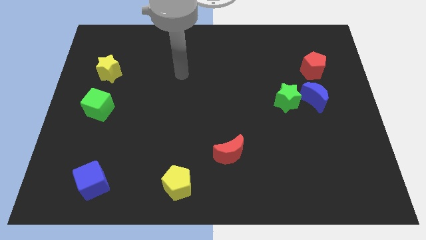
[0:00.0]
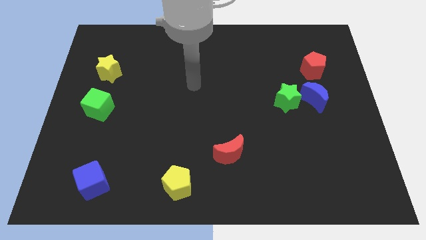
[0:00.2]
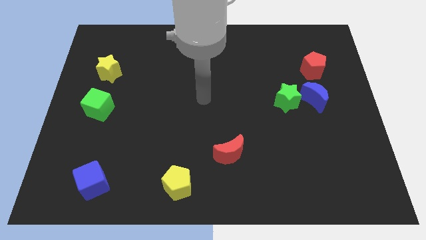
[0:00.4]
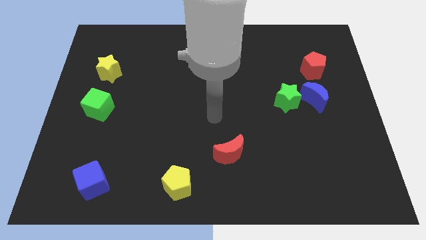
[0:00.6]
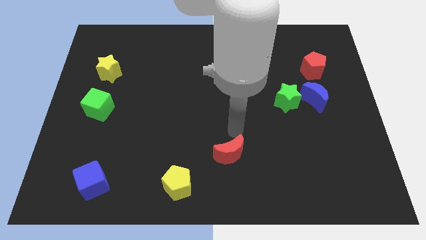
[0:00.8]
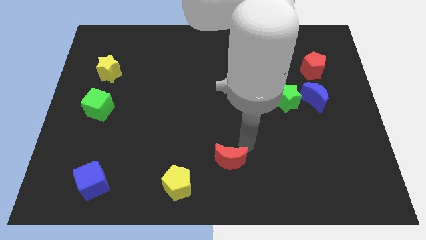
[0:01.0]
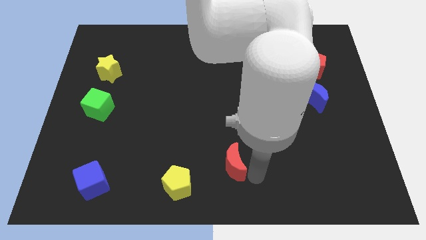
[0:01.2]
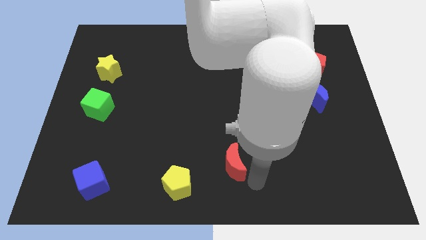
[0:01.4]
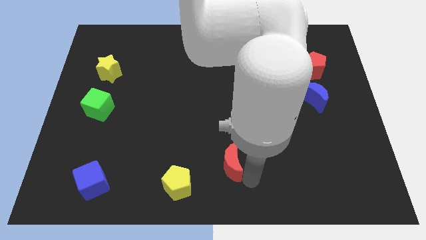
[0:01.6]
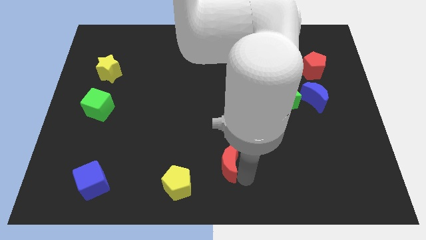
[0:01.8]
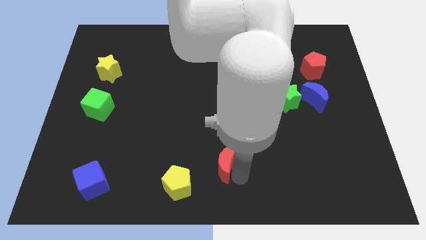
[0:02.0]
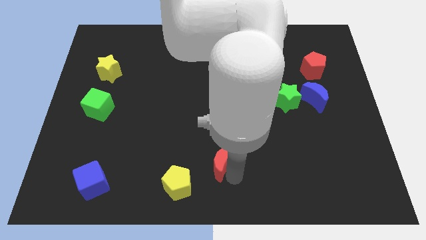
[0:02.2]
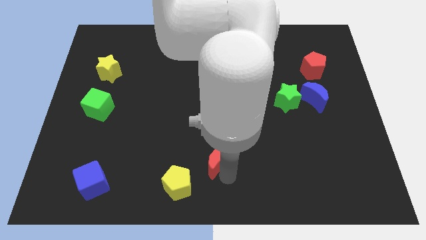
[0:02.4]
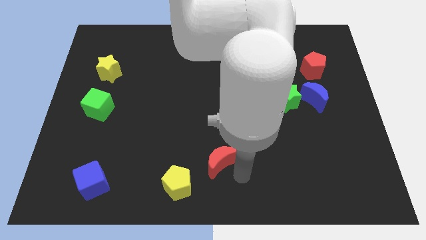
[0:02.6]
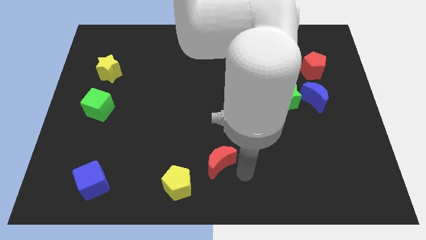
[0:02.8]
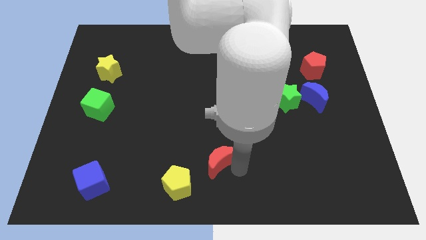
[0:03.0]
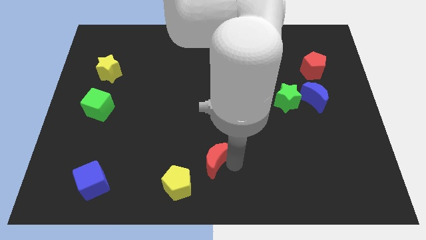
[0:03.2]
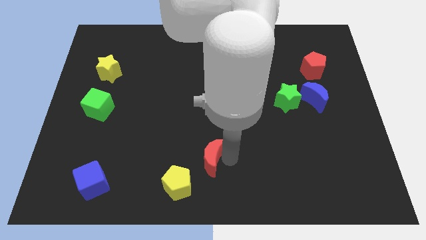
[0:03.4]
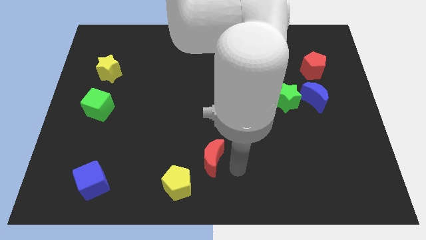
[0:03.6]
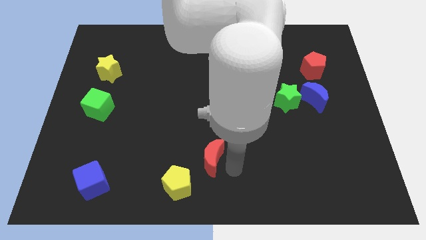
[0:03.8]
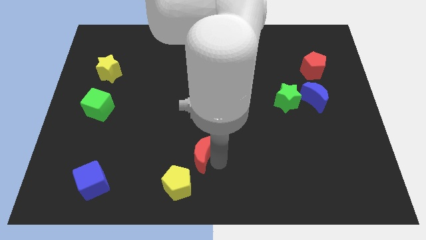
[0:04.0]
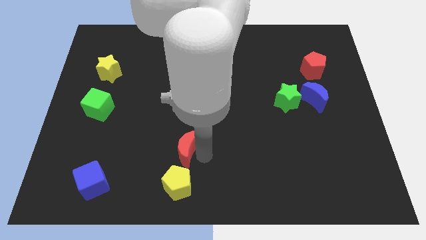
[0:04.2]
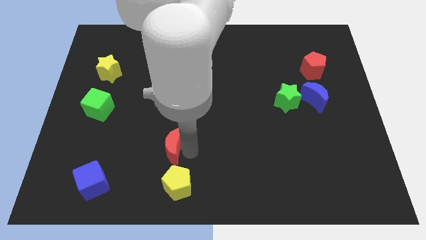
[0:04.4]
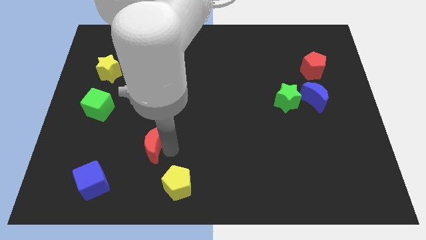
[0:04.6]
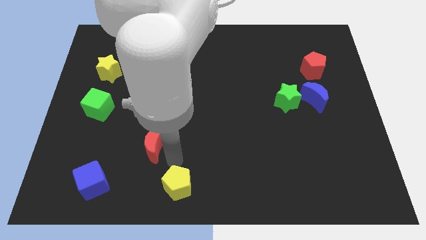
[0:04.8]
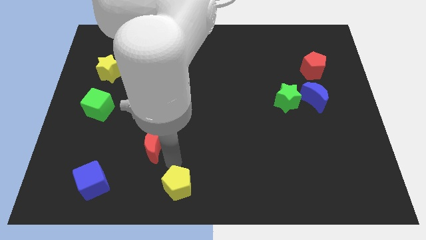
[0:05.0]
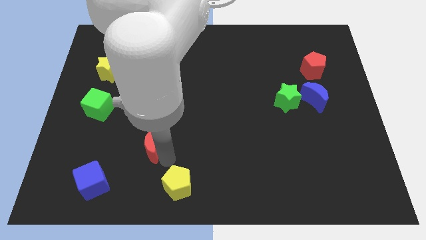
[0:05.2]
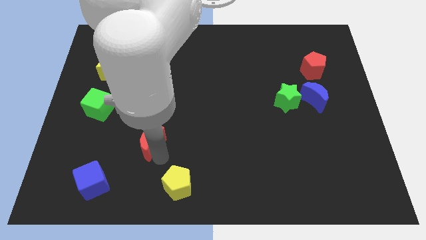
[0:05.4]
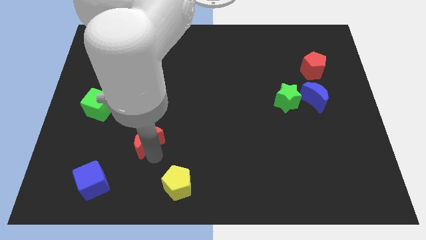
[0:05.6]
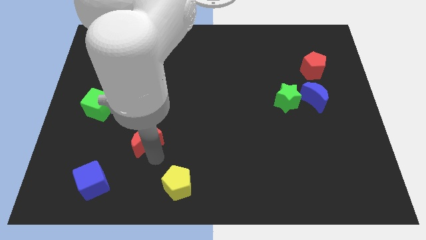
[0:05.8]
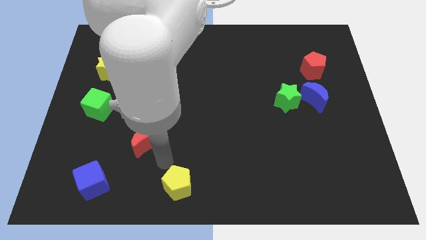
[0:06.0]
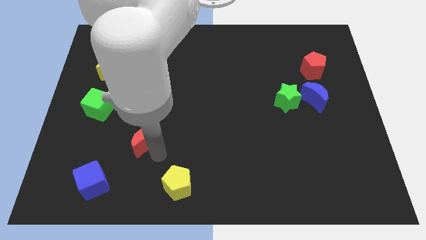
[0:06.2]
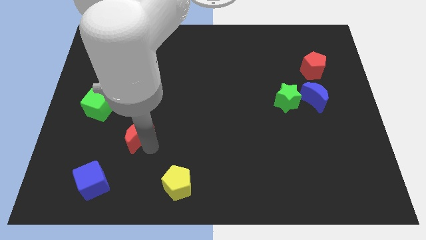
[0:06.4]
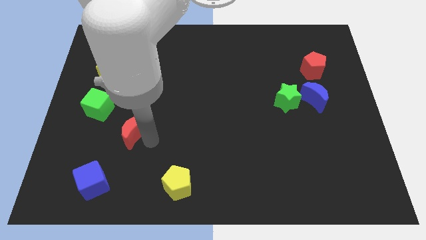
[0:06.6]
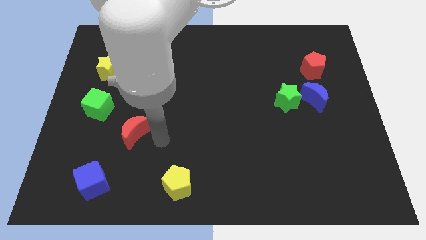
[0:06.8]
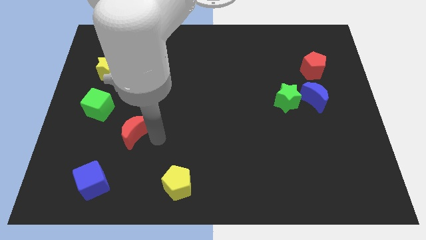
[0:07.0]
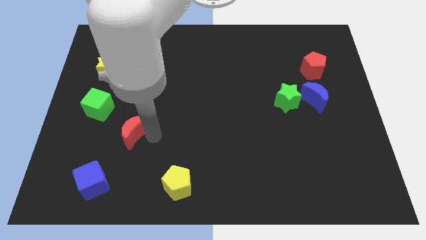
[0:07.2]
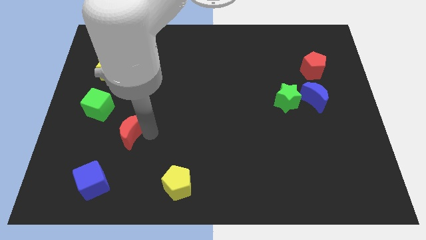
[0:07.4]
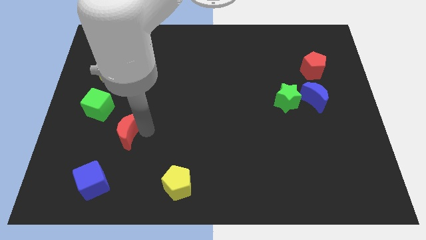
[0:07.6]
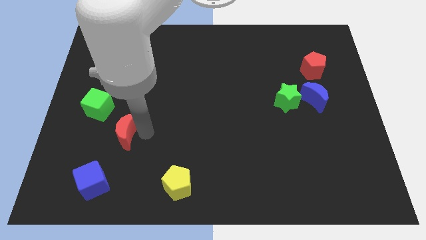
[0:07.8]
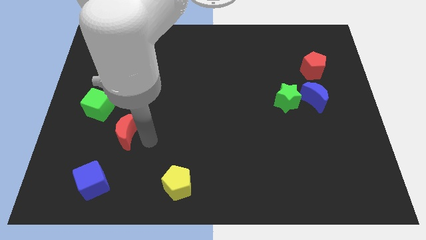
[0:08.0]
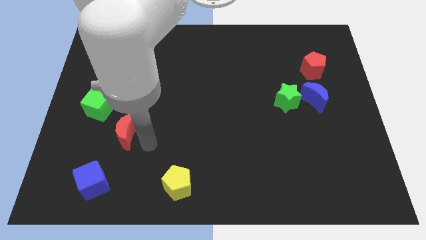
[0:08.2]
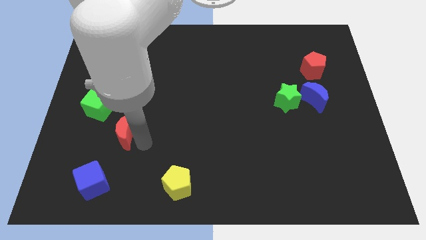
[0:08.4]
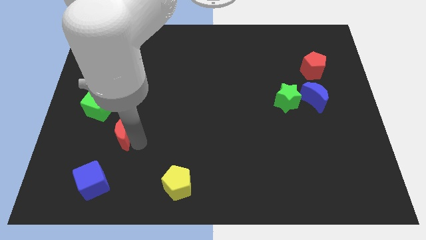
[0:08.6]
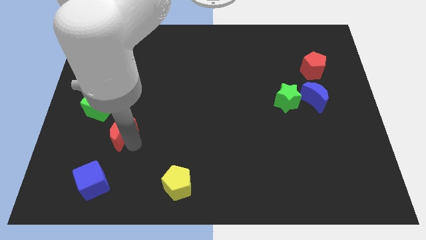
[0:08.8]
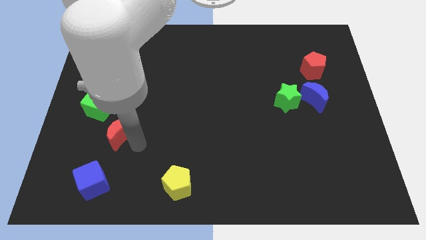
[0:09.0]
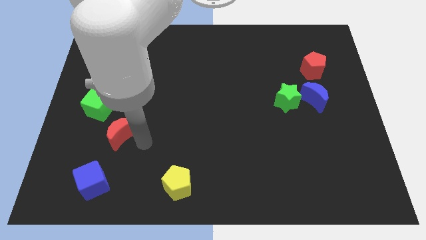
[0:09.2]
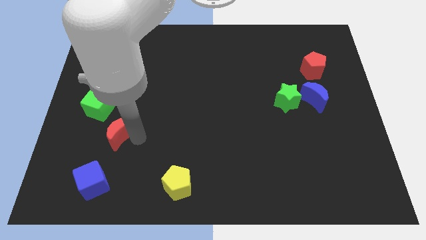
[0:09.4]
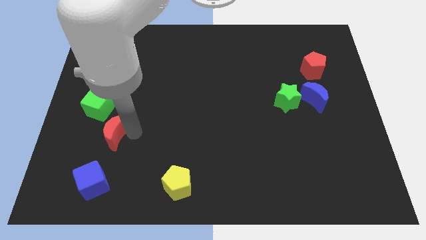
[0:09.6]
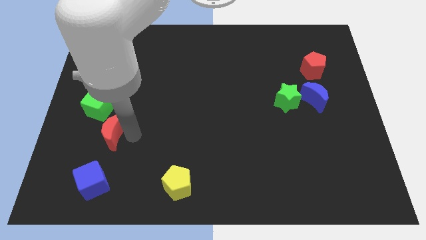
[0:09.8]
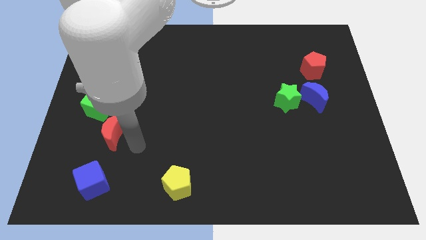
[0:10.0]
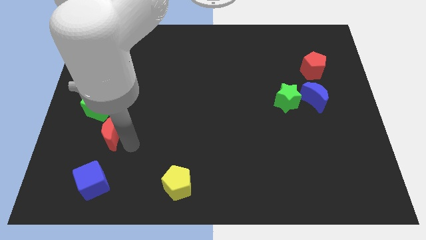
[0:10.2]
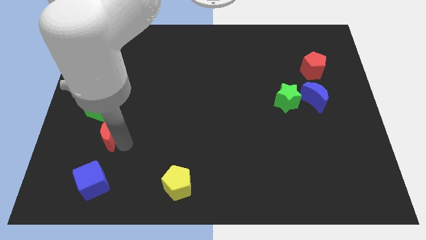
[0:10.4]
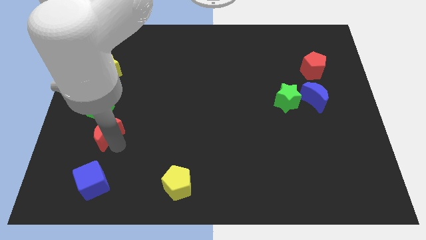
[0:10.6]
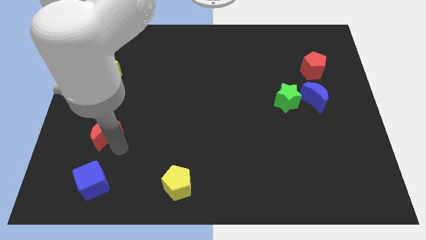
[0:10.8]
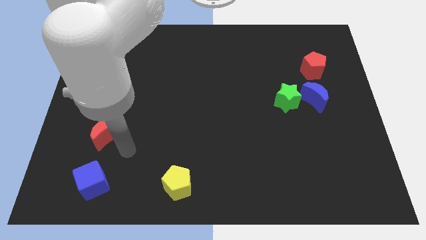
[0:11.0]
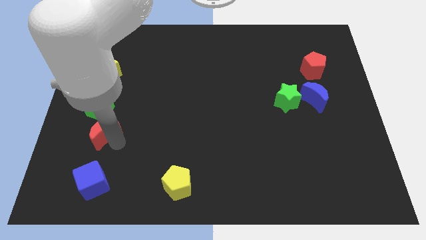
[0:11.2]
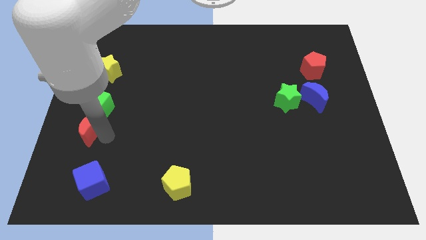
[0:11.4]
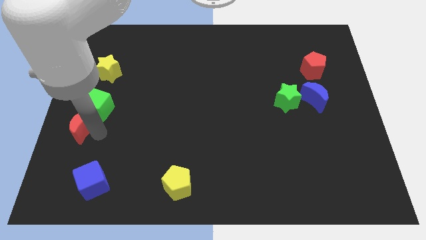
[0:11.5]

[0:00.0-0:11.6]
move the red moon to the left side
